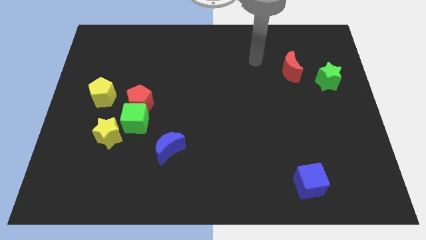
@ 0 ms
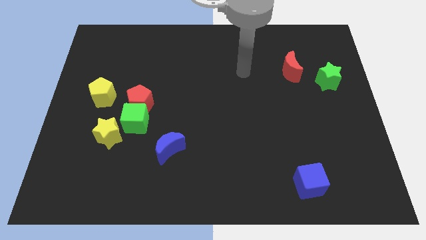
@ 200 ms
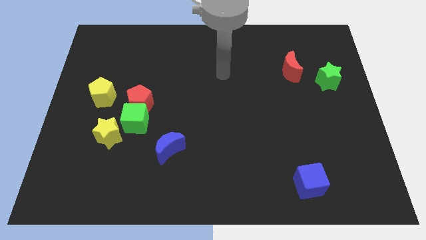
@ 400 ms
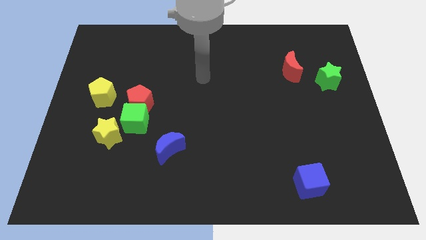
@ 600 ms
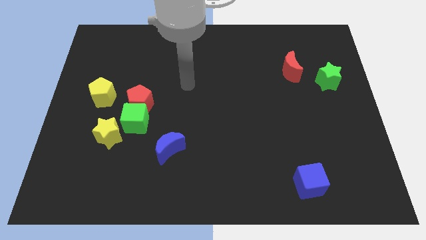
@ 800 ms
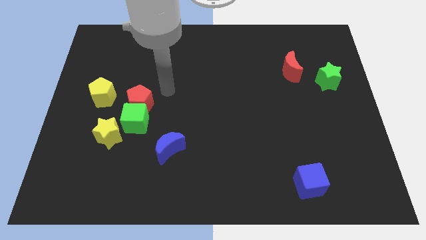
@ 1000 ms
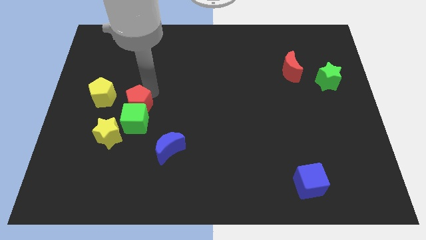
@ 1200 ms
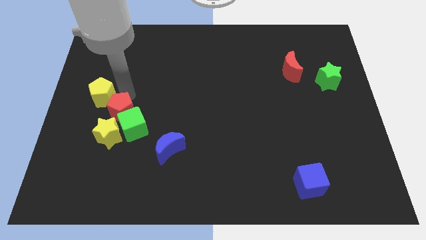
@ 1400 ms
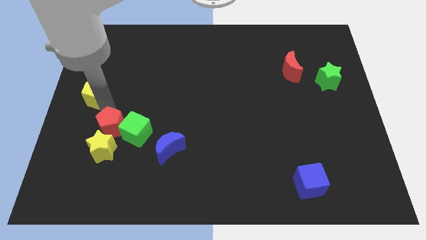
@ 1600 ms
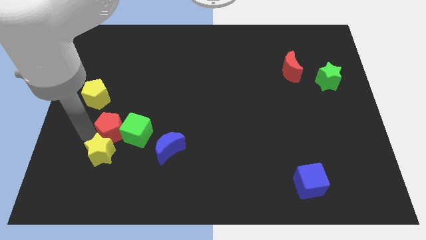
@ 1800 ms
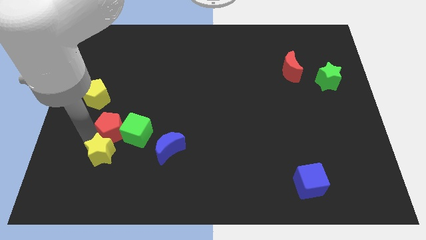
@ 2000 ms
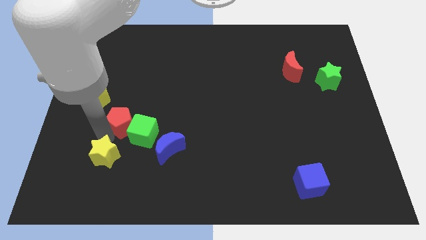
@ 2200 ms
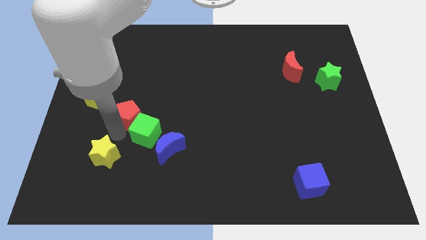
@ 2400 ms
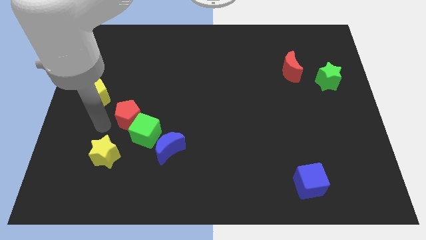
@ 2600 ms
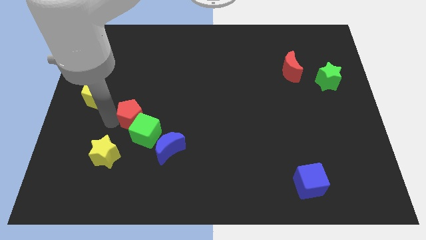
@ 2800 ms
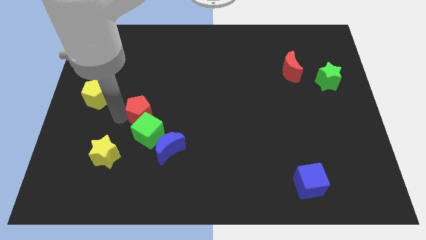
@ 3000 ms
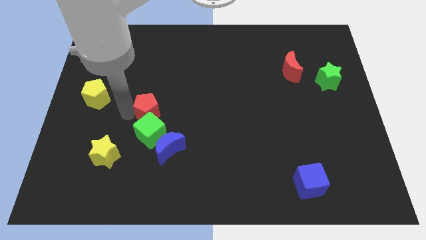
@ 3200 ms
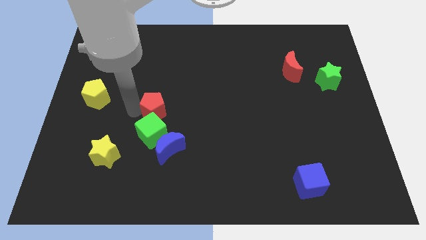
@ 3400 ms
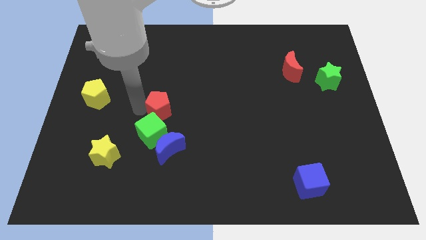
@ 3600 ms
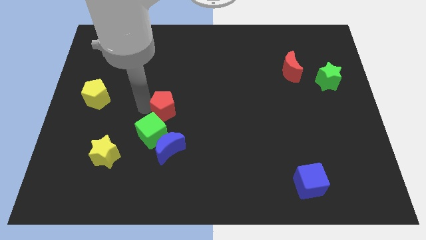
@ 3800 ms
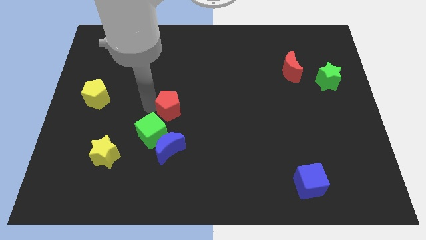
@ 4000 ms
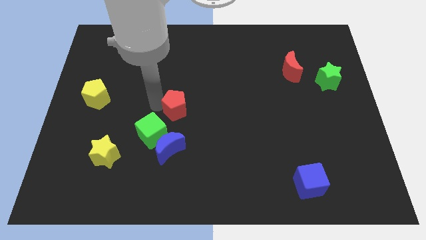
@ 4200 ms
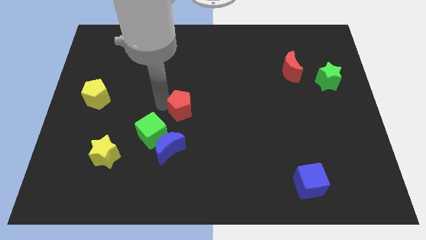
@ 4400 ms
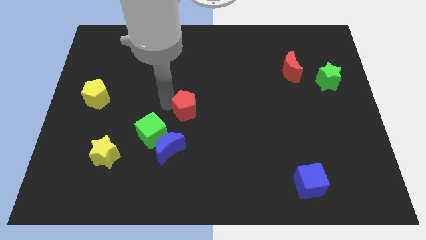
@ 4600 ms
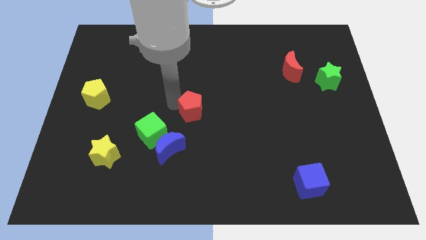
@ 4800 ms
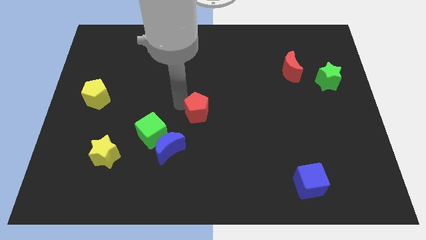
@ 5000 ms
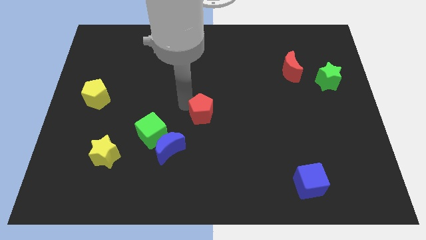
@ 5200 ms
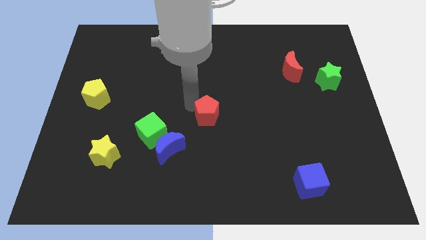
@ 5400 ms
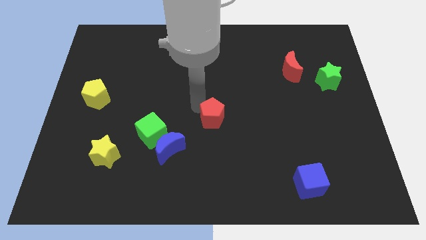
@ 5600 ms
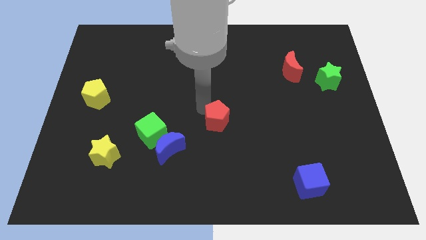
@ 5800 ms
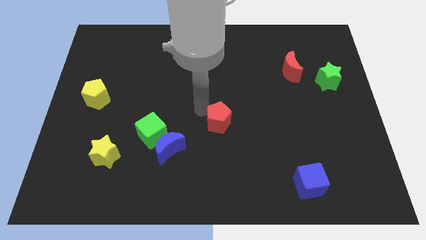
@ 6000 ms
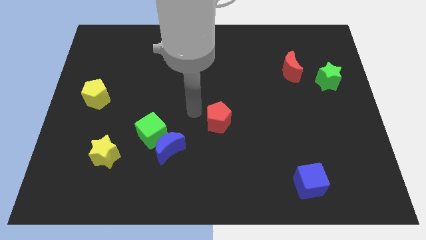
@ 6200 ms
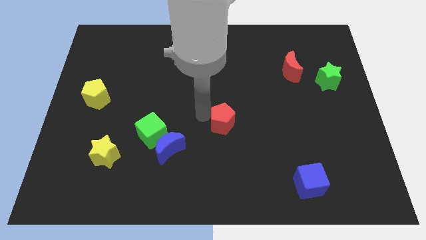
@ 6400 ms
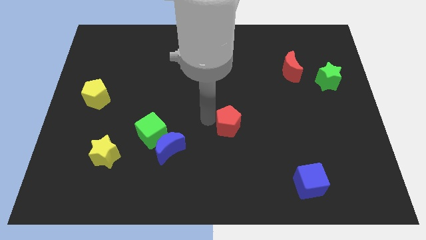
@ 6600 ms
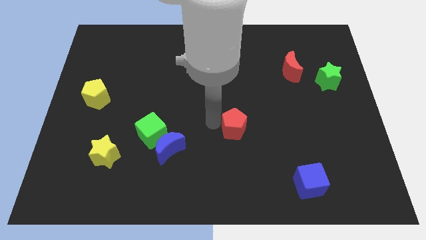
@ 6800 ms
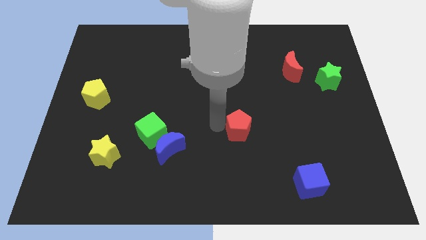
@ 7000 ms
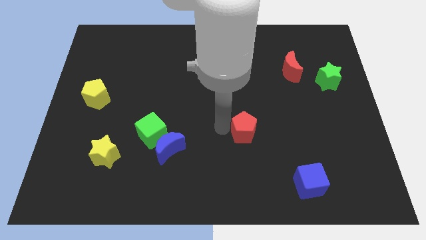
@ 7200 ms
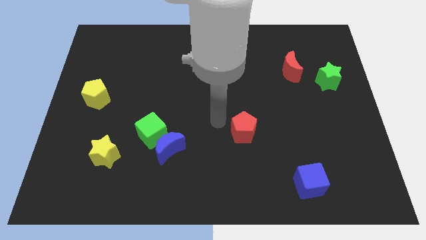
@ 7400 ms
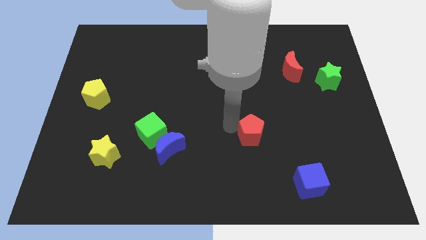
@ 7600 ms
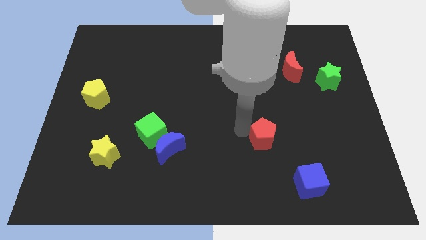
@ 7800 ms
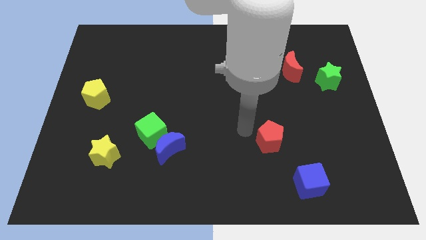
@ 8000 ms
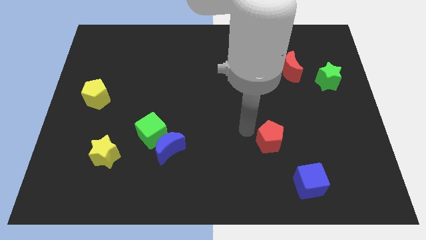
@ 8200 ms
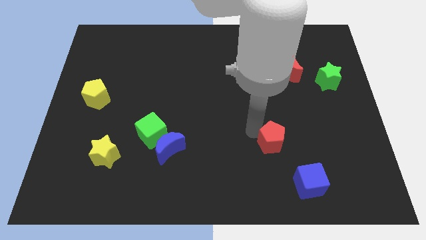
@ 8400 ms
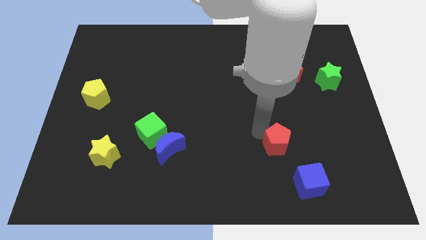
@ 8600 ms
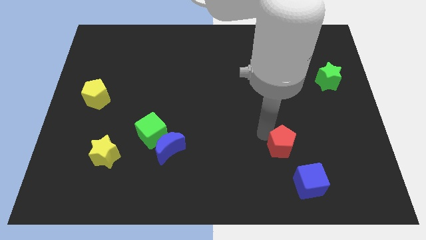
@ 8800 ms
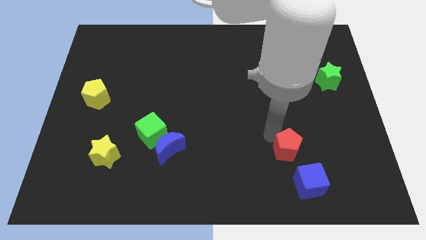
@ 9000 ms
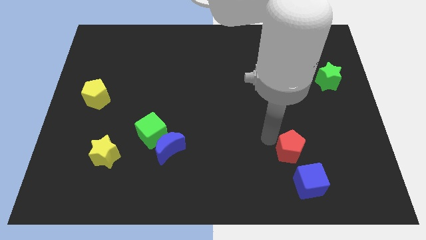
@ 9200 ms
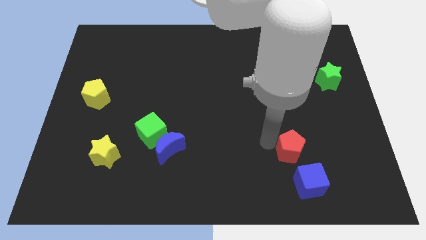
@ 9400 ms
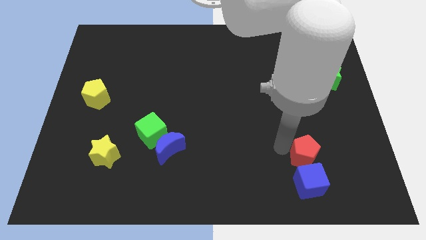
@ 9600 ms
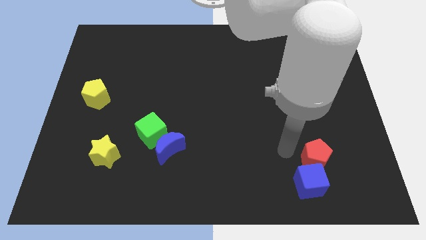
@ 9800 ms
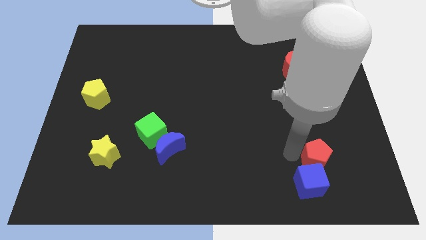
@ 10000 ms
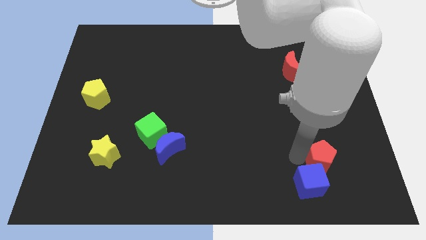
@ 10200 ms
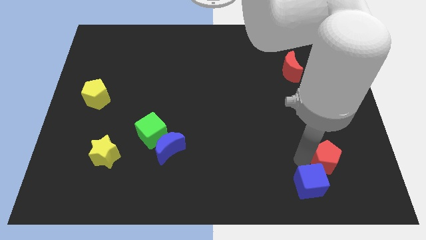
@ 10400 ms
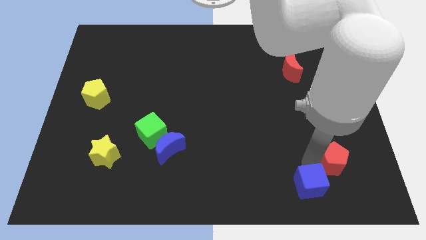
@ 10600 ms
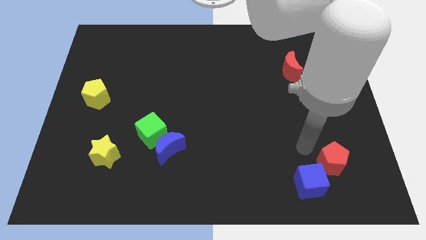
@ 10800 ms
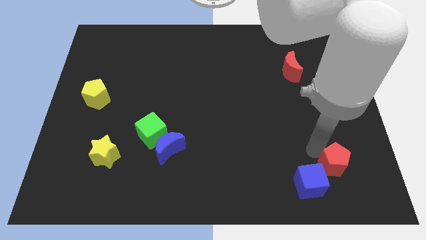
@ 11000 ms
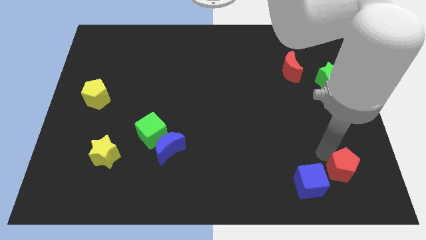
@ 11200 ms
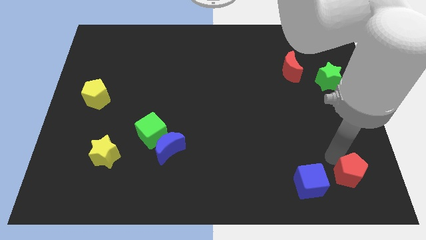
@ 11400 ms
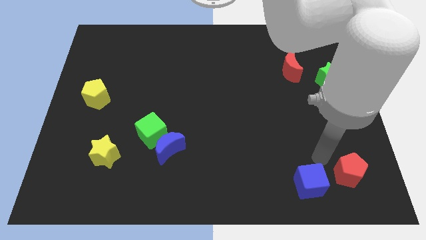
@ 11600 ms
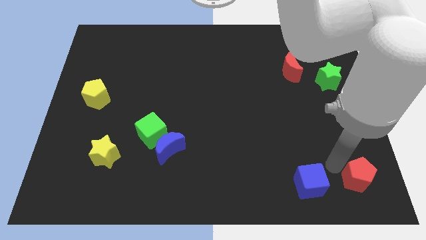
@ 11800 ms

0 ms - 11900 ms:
put the red pentagon to the bottom right of the board
